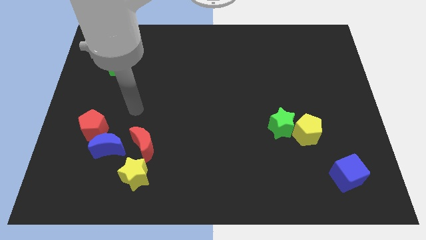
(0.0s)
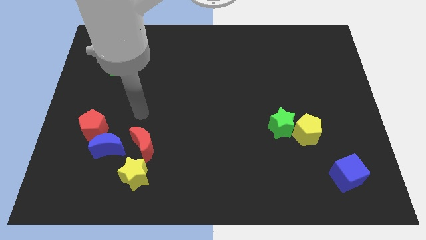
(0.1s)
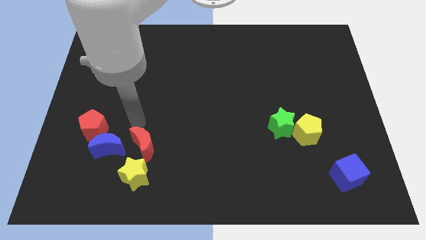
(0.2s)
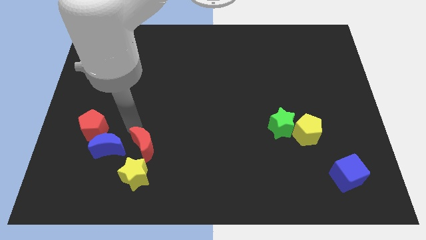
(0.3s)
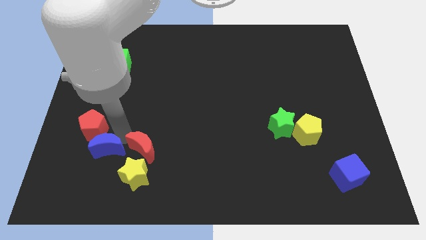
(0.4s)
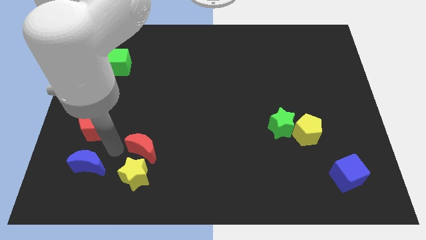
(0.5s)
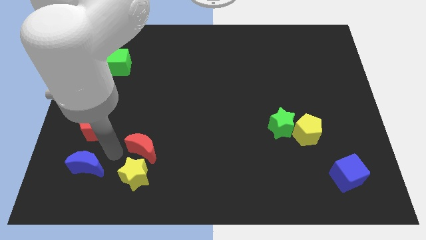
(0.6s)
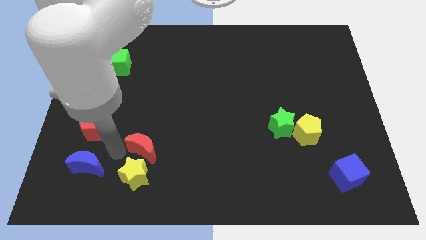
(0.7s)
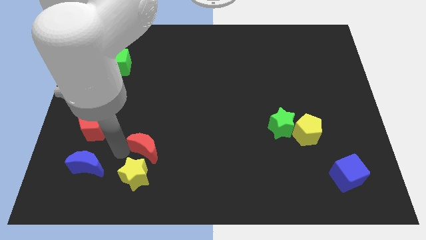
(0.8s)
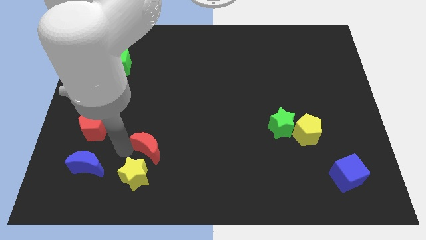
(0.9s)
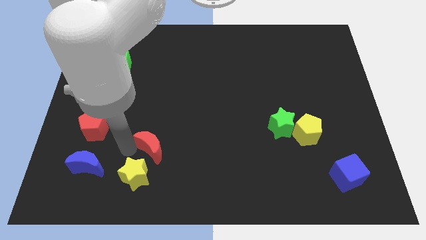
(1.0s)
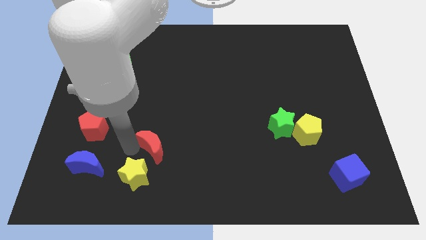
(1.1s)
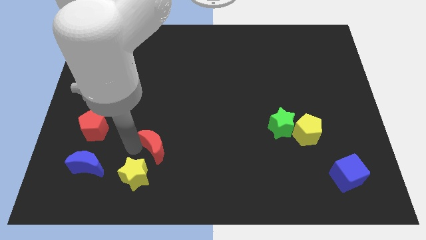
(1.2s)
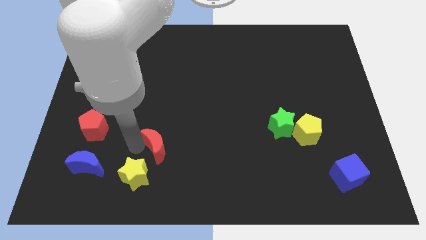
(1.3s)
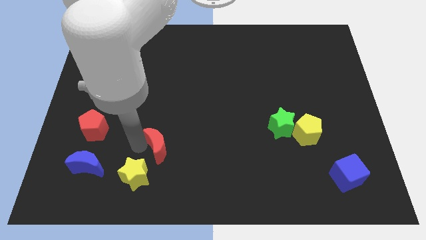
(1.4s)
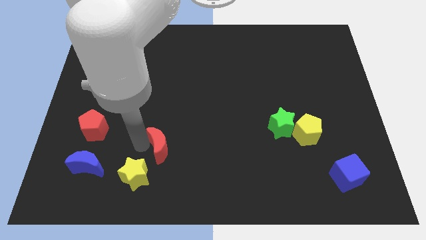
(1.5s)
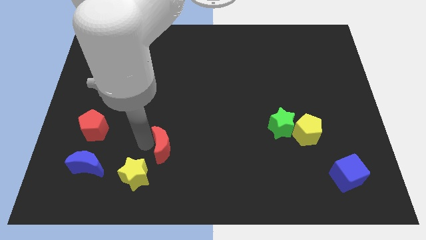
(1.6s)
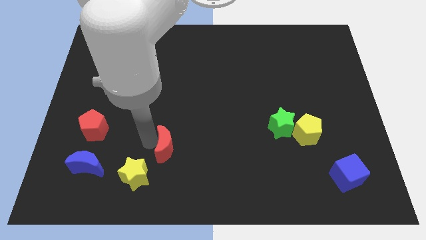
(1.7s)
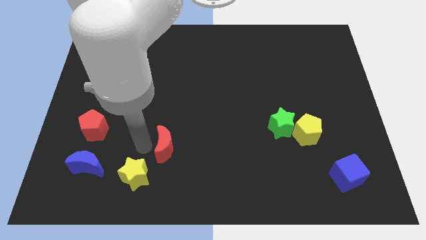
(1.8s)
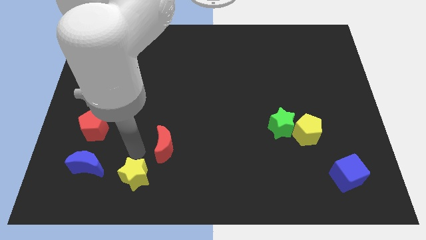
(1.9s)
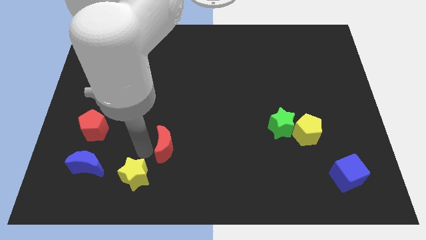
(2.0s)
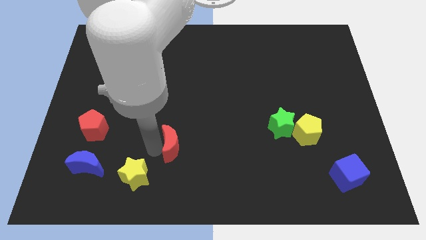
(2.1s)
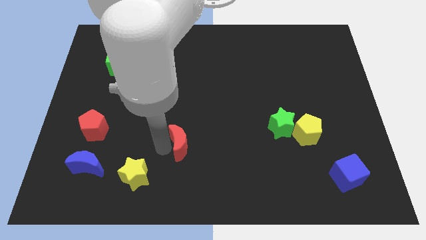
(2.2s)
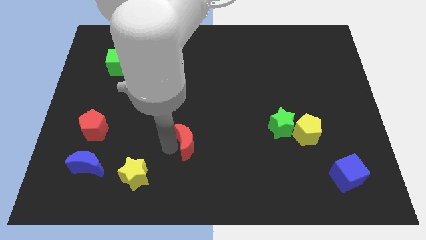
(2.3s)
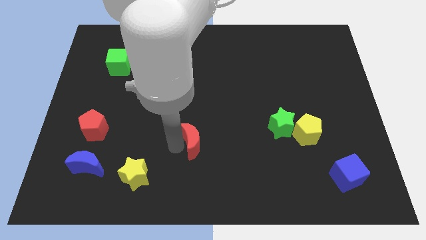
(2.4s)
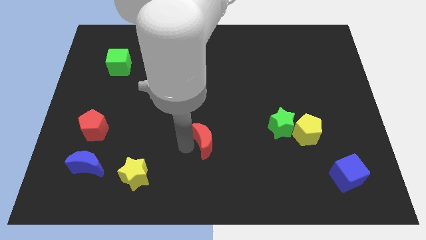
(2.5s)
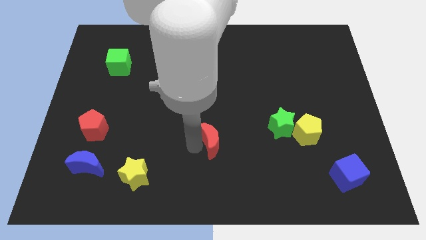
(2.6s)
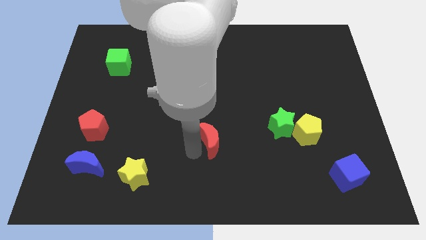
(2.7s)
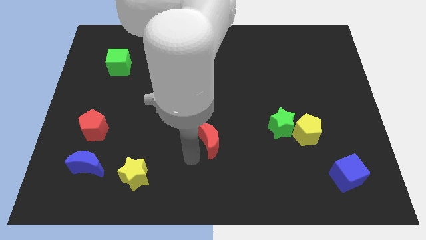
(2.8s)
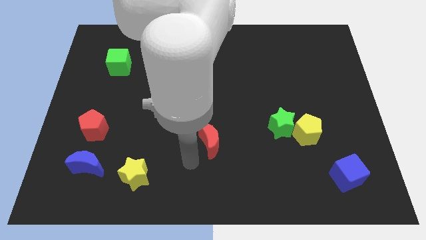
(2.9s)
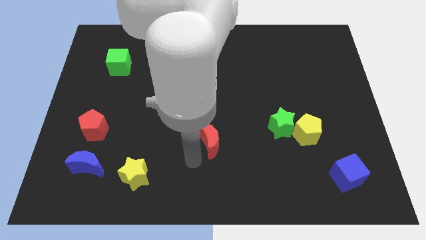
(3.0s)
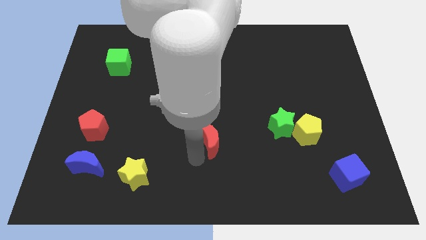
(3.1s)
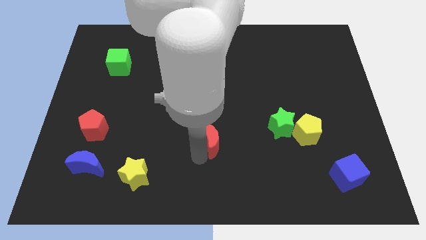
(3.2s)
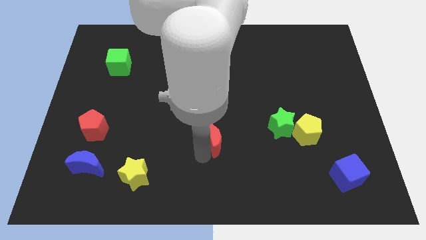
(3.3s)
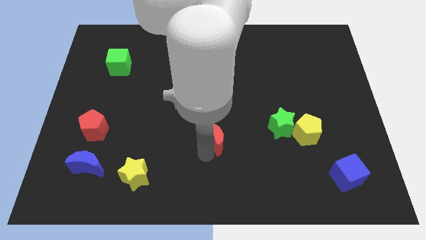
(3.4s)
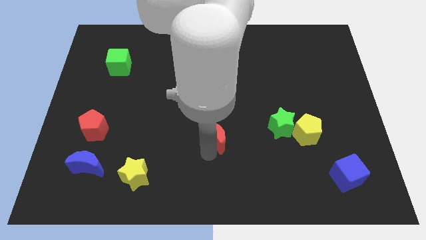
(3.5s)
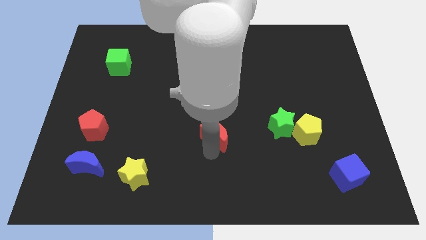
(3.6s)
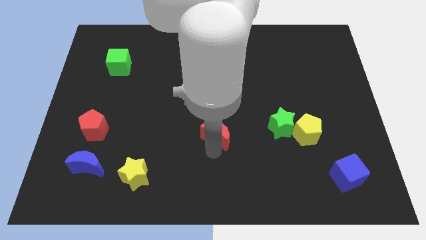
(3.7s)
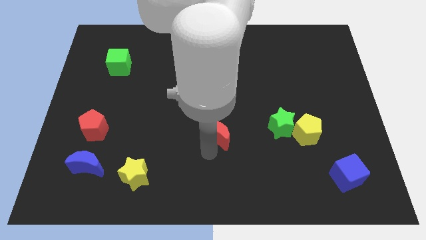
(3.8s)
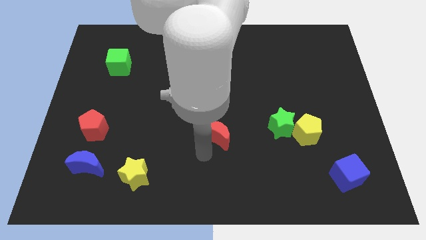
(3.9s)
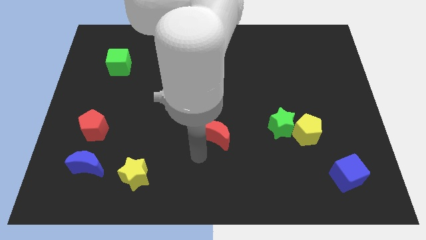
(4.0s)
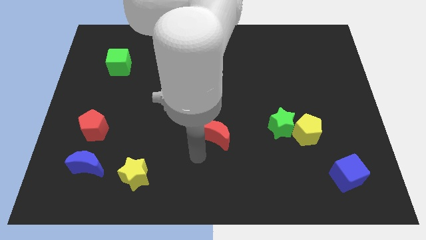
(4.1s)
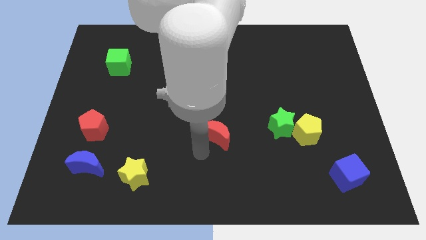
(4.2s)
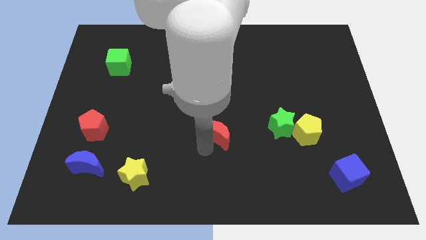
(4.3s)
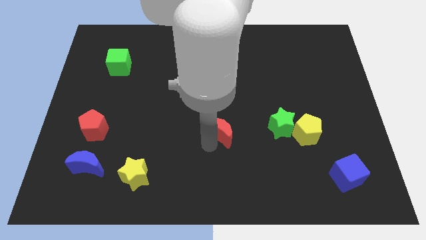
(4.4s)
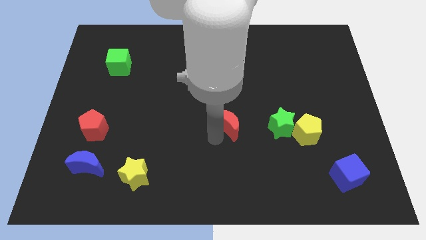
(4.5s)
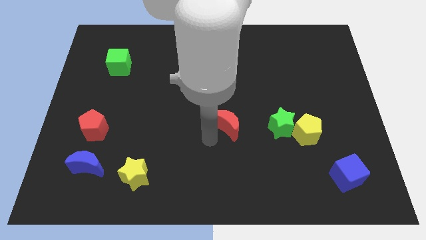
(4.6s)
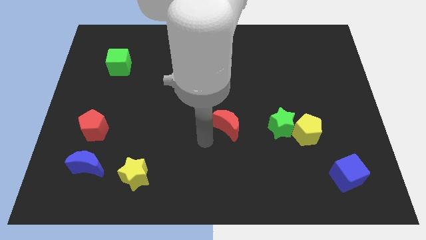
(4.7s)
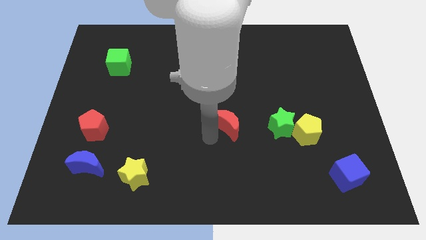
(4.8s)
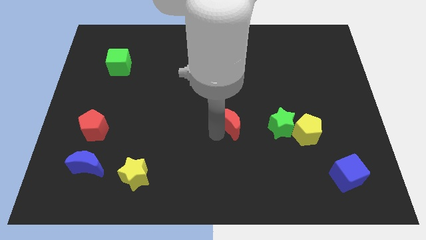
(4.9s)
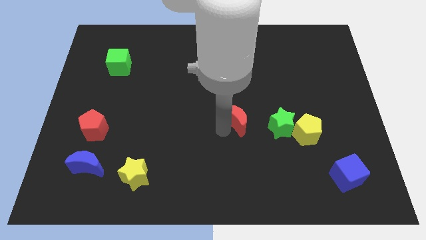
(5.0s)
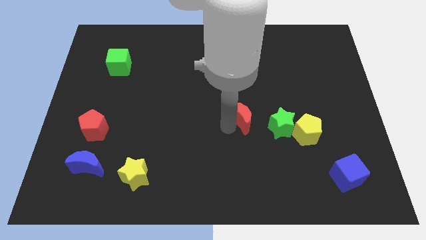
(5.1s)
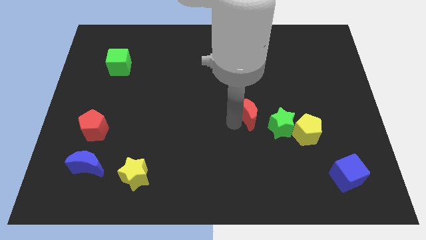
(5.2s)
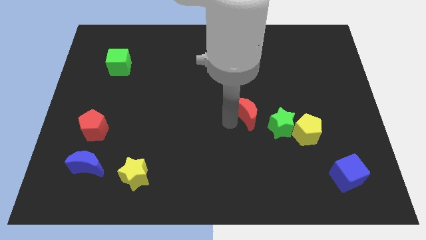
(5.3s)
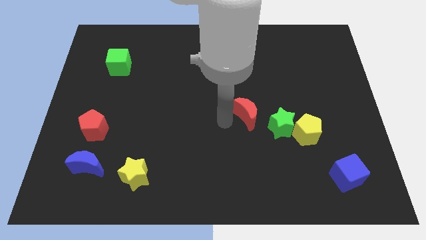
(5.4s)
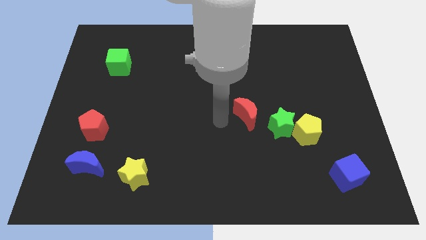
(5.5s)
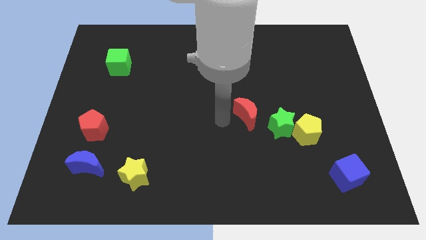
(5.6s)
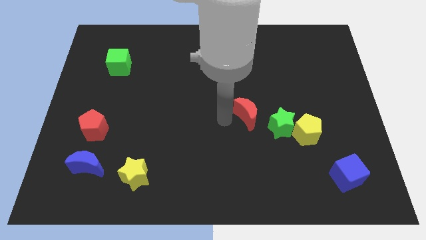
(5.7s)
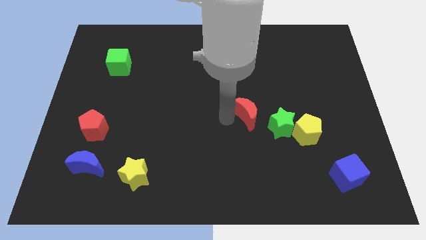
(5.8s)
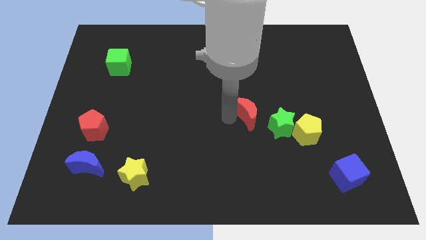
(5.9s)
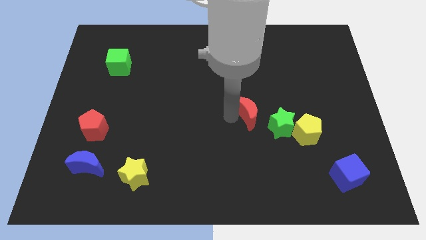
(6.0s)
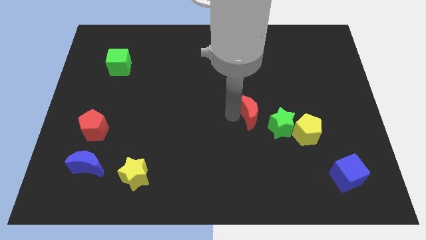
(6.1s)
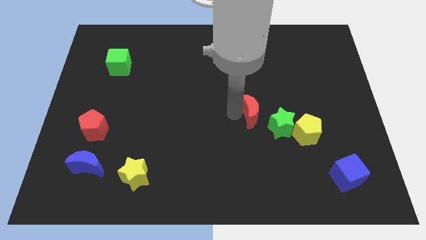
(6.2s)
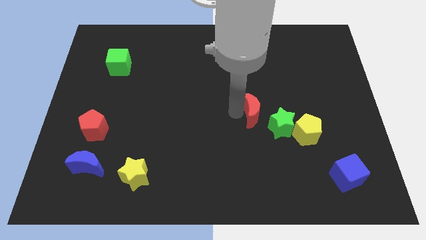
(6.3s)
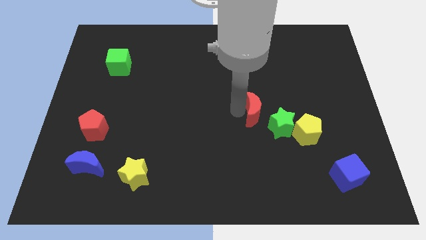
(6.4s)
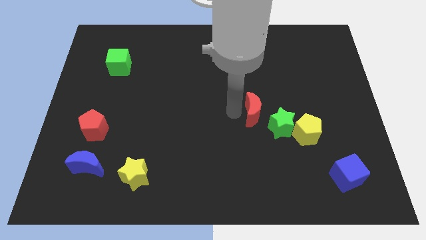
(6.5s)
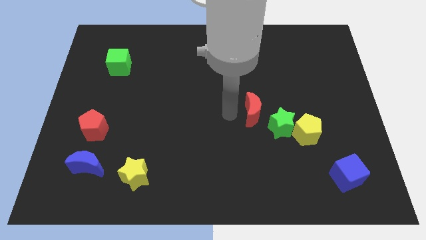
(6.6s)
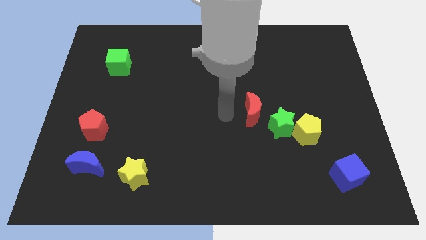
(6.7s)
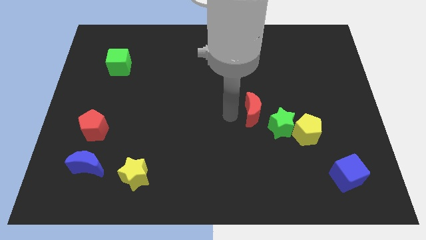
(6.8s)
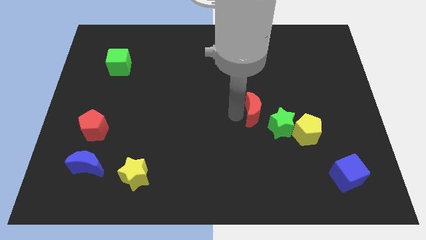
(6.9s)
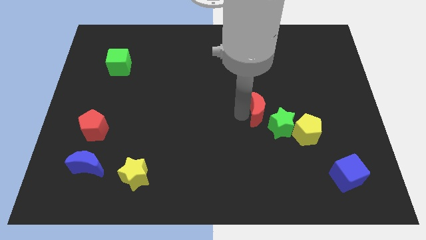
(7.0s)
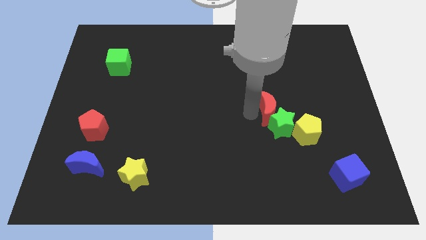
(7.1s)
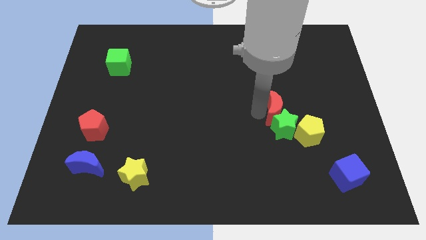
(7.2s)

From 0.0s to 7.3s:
put the red moon to the top right of the green star
